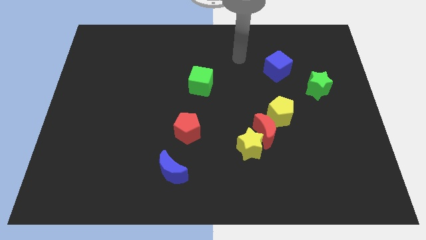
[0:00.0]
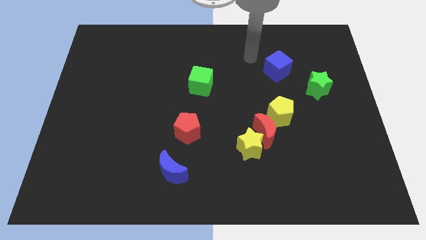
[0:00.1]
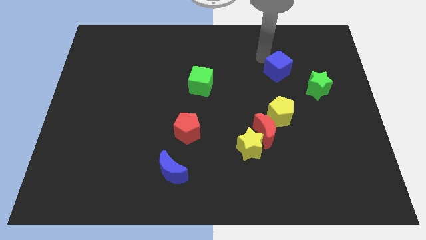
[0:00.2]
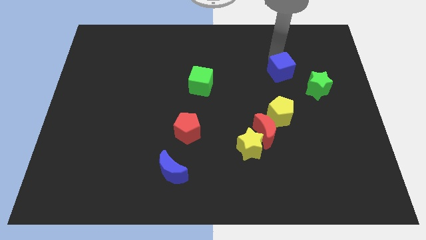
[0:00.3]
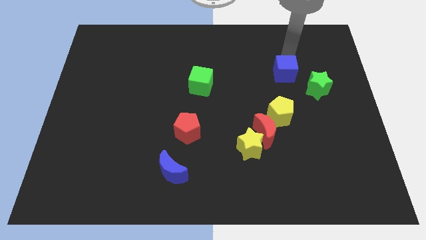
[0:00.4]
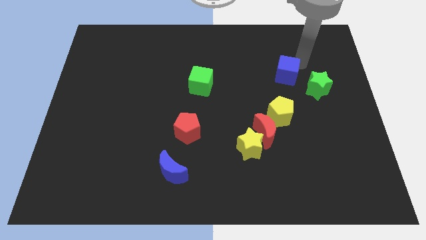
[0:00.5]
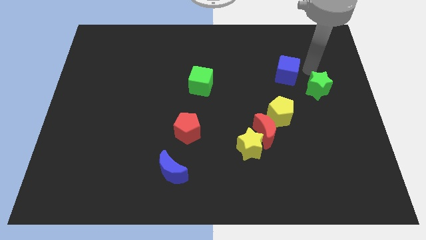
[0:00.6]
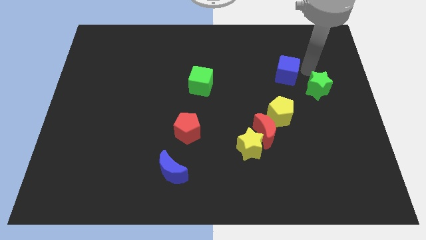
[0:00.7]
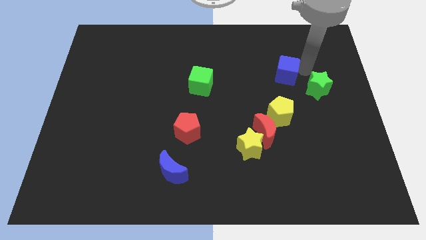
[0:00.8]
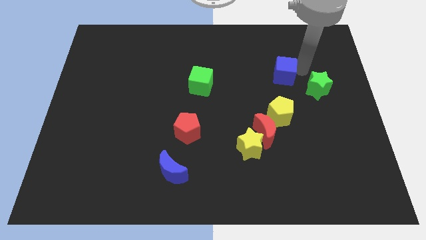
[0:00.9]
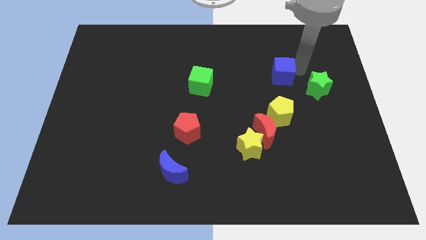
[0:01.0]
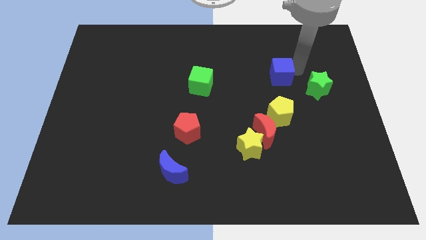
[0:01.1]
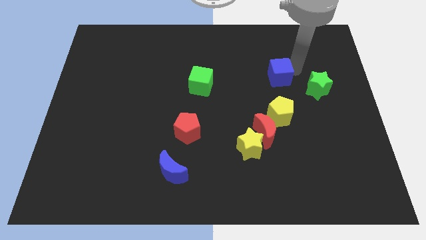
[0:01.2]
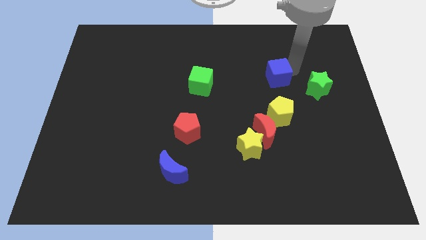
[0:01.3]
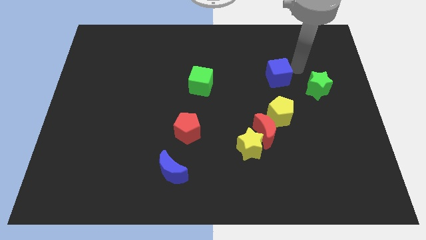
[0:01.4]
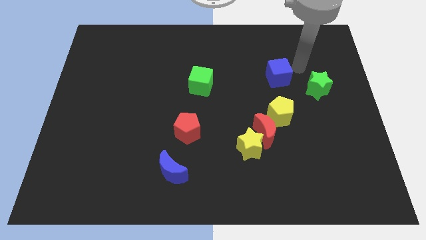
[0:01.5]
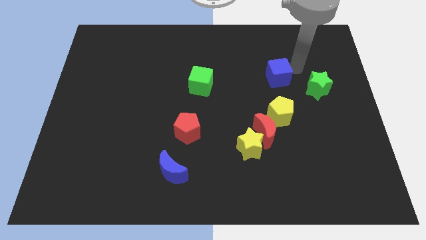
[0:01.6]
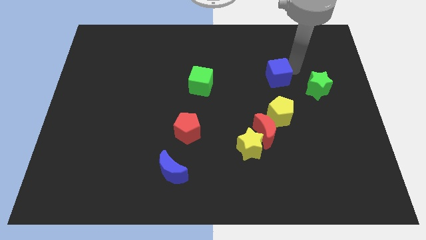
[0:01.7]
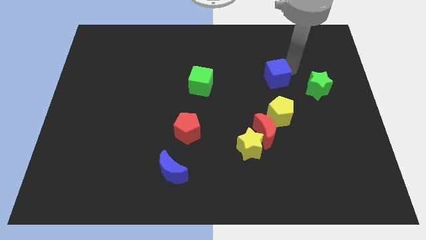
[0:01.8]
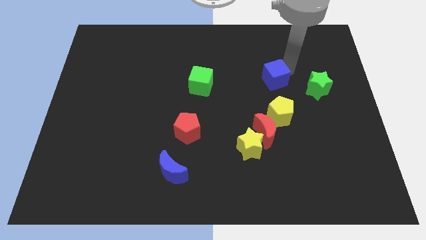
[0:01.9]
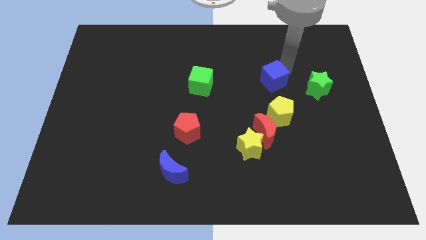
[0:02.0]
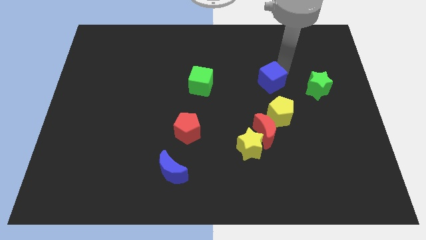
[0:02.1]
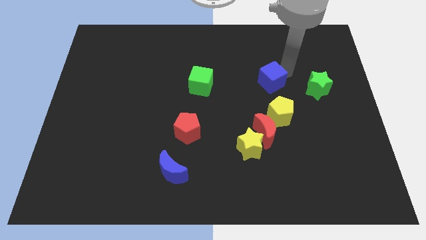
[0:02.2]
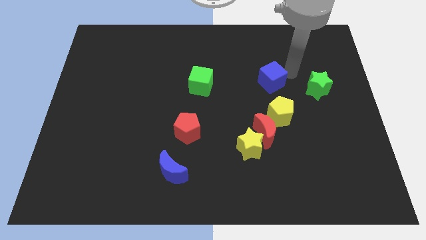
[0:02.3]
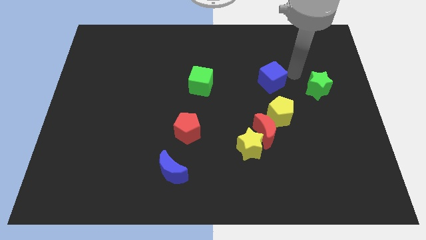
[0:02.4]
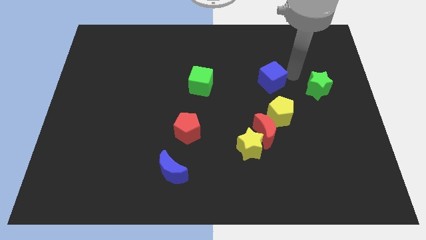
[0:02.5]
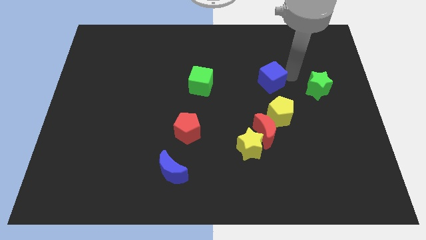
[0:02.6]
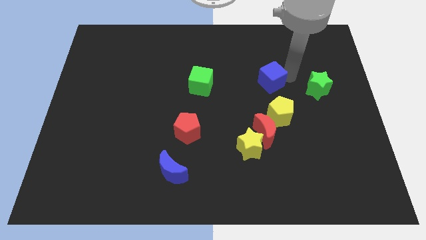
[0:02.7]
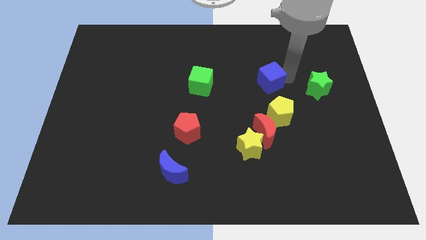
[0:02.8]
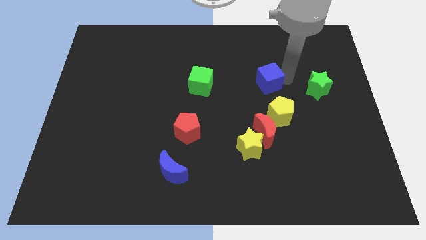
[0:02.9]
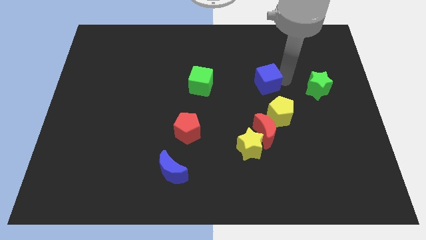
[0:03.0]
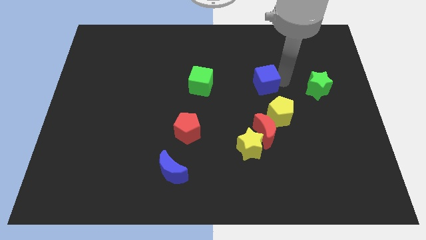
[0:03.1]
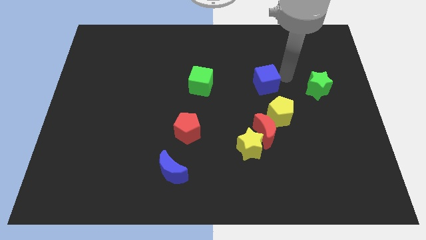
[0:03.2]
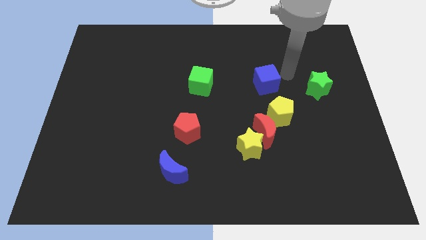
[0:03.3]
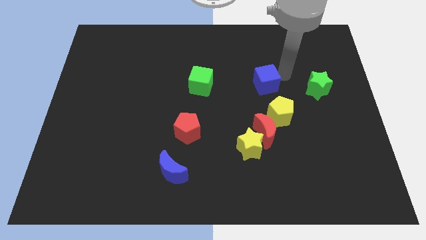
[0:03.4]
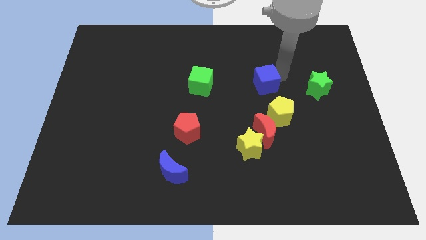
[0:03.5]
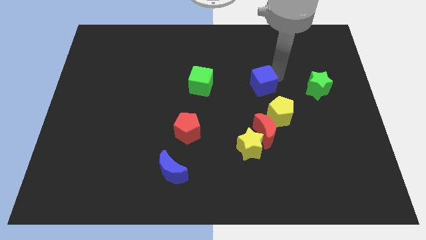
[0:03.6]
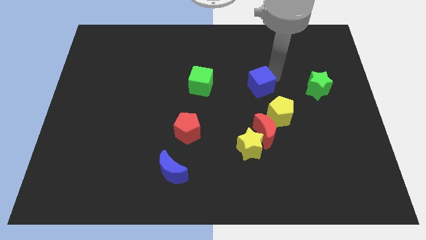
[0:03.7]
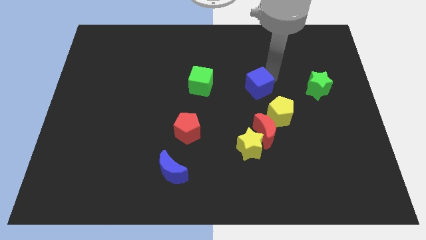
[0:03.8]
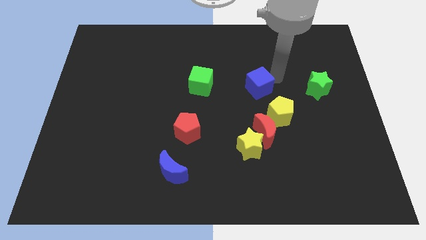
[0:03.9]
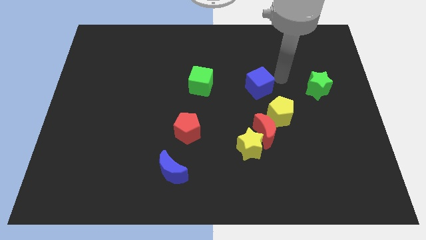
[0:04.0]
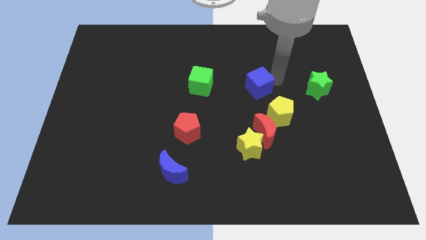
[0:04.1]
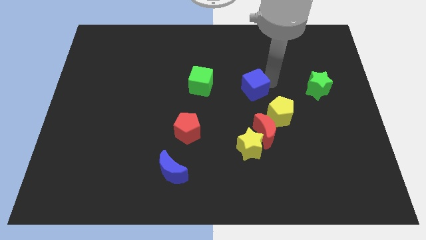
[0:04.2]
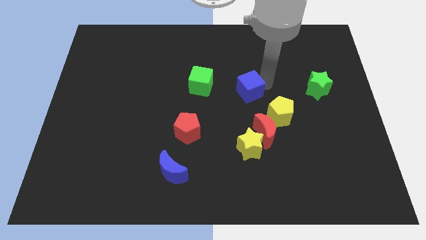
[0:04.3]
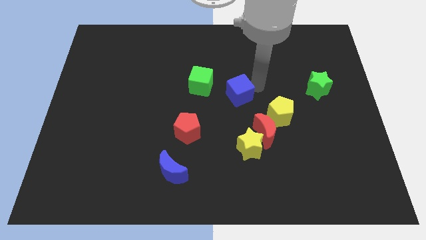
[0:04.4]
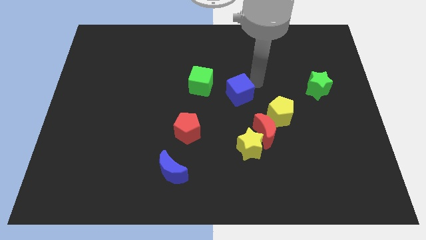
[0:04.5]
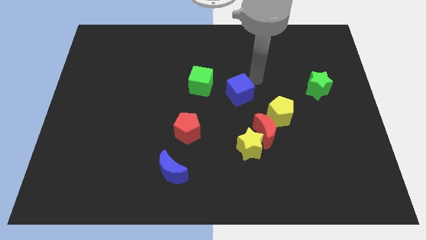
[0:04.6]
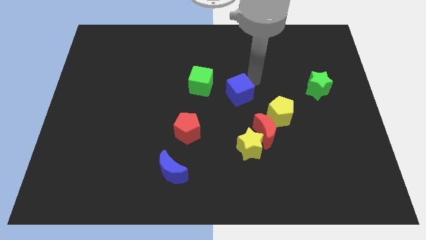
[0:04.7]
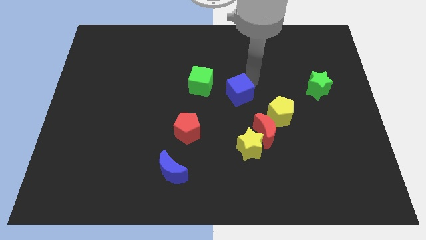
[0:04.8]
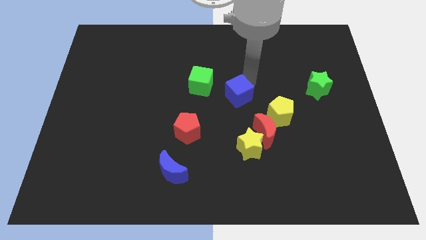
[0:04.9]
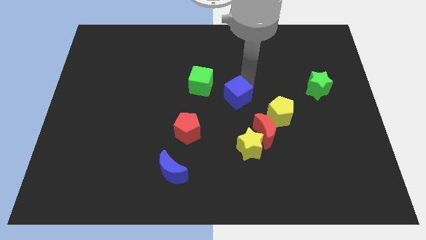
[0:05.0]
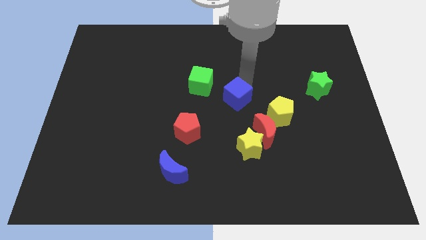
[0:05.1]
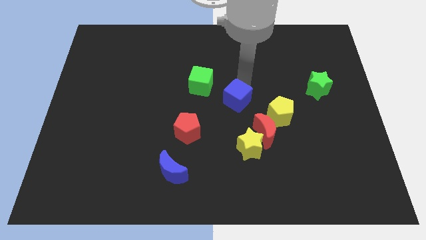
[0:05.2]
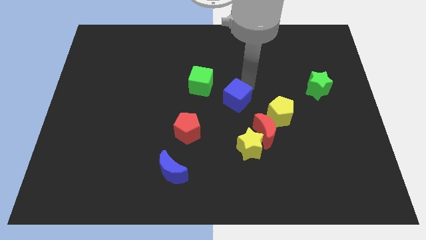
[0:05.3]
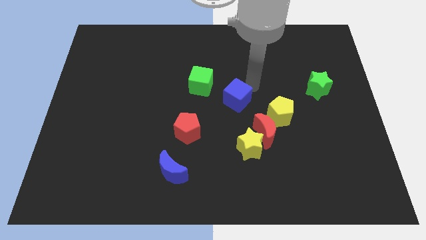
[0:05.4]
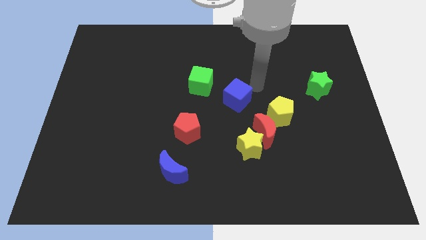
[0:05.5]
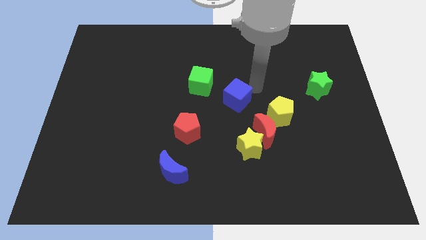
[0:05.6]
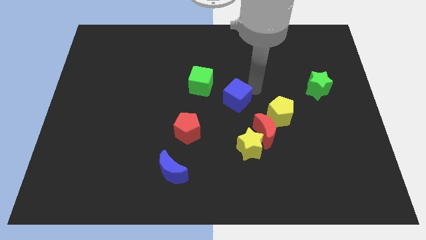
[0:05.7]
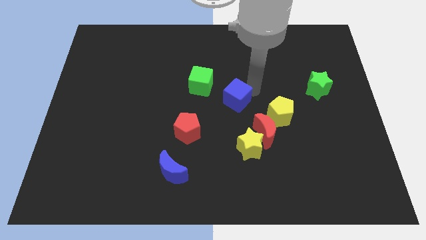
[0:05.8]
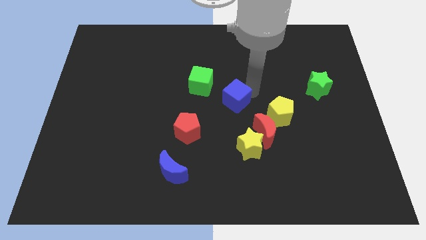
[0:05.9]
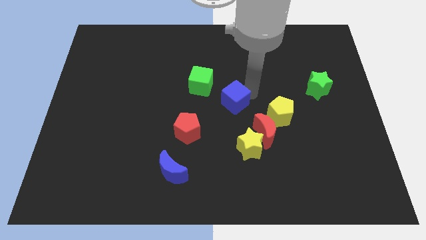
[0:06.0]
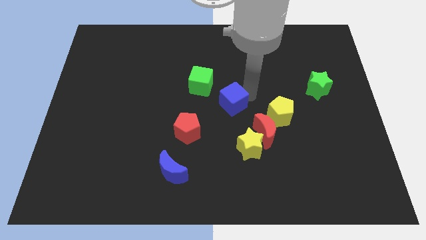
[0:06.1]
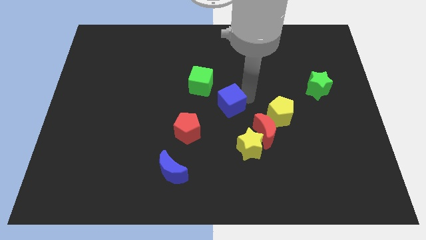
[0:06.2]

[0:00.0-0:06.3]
move the blue cube to the top right of the red pentagon
